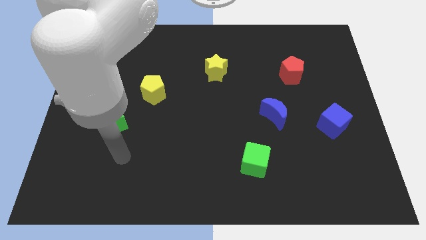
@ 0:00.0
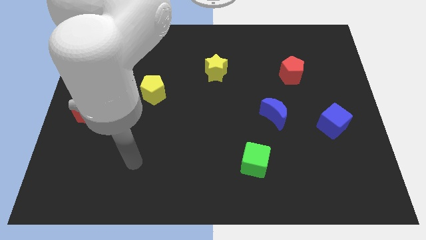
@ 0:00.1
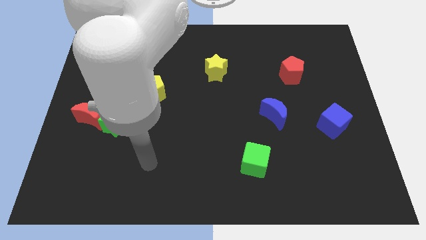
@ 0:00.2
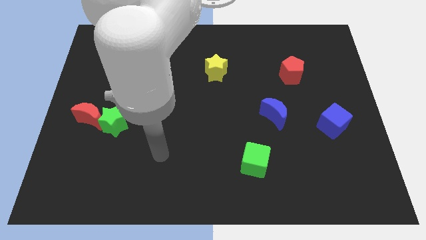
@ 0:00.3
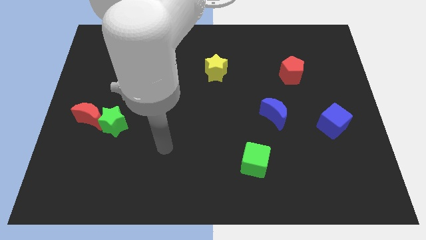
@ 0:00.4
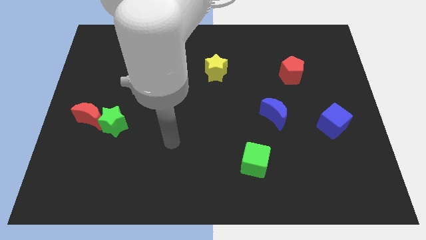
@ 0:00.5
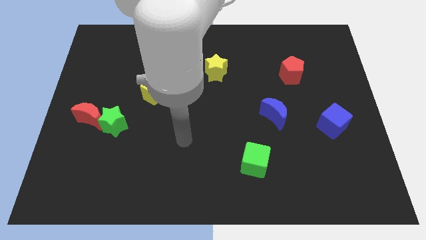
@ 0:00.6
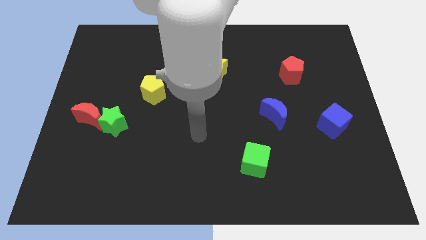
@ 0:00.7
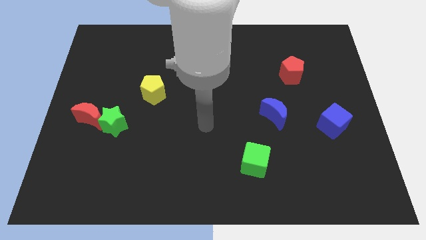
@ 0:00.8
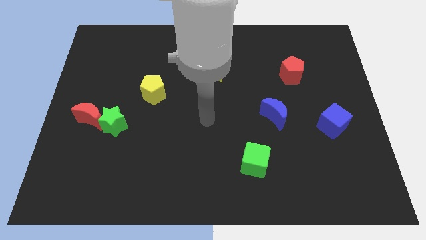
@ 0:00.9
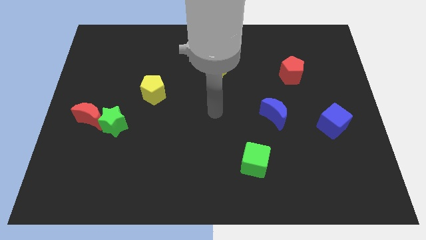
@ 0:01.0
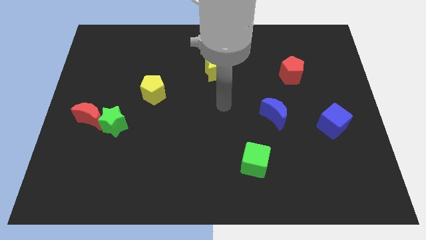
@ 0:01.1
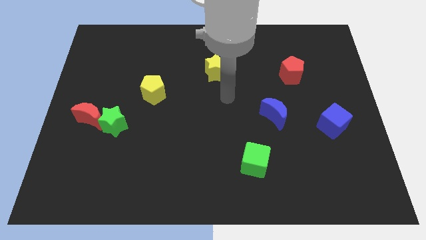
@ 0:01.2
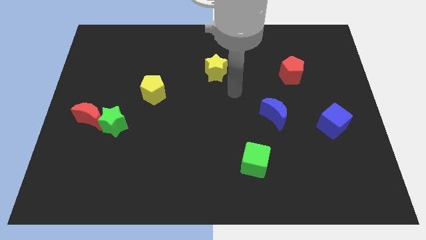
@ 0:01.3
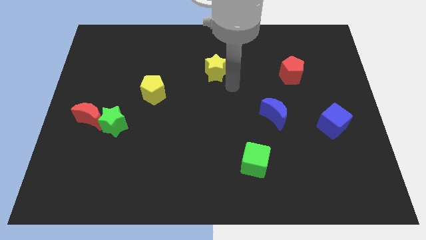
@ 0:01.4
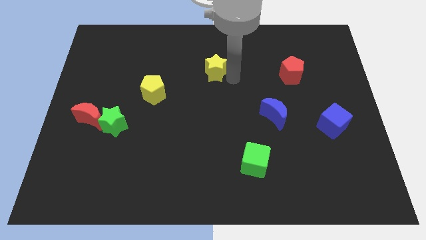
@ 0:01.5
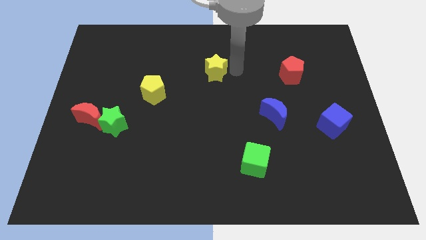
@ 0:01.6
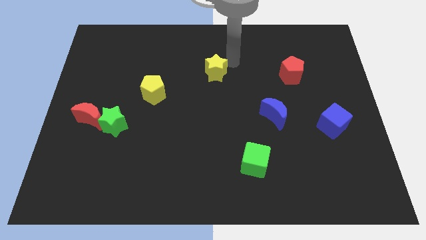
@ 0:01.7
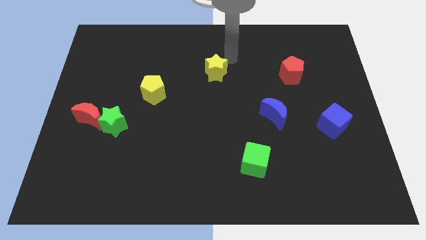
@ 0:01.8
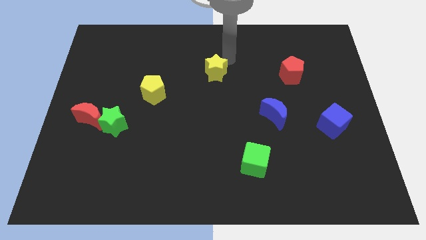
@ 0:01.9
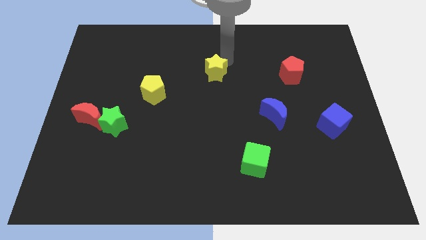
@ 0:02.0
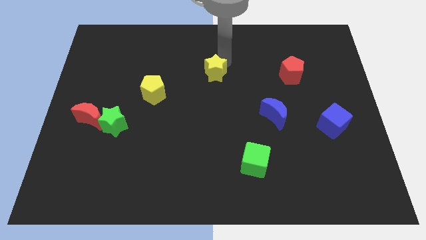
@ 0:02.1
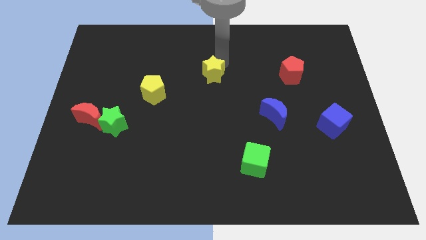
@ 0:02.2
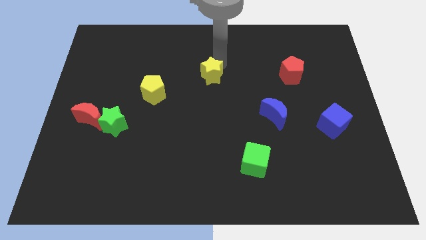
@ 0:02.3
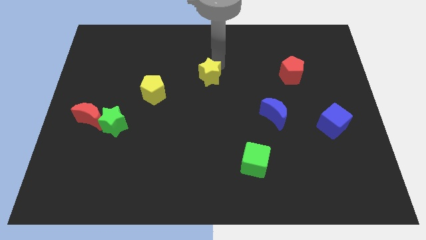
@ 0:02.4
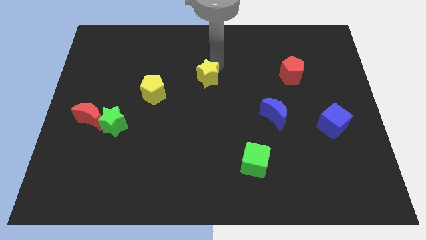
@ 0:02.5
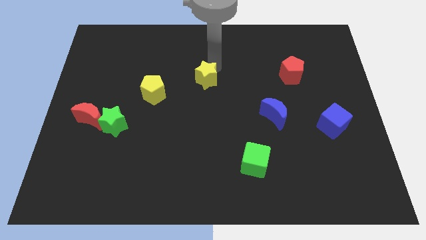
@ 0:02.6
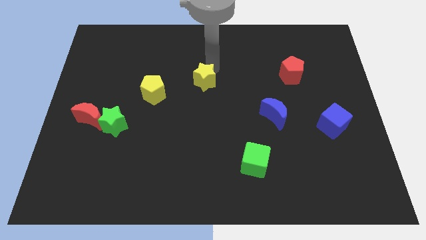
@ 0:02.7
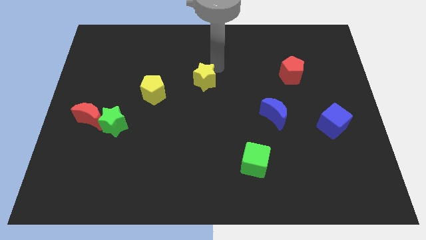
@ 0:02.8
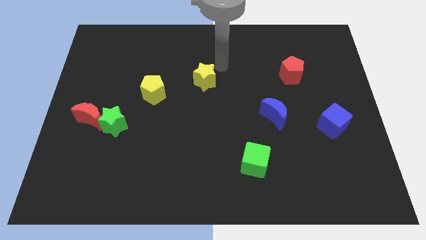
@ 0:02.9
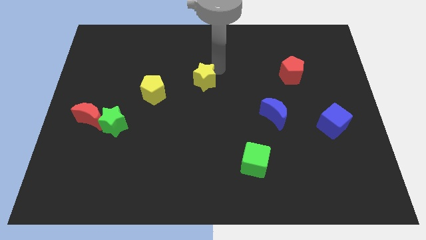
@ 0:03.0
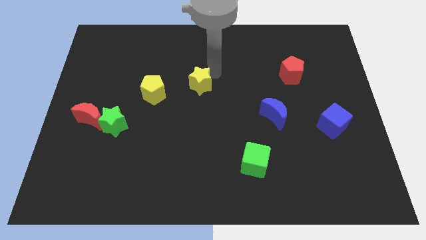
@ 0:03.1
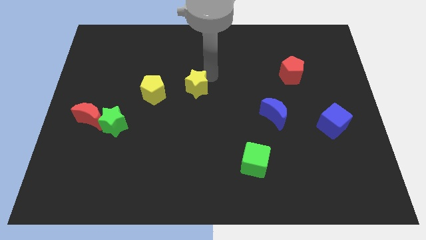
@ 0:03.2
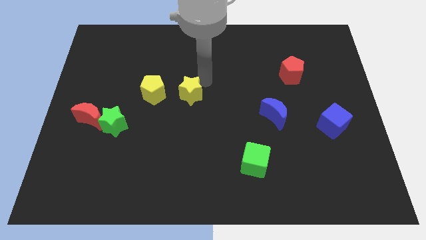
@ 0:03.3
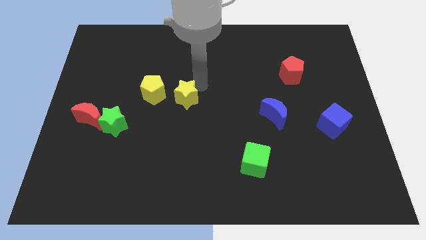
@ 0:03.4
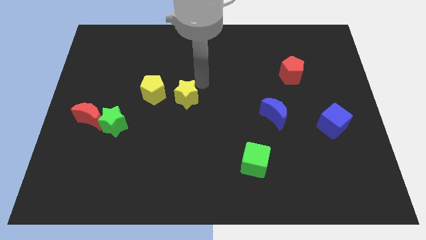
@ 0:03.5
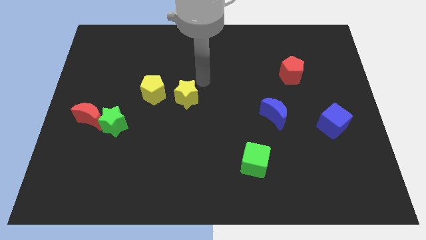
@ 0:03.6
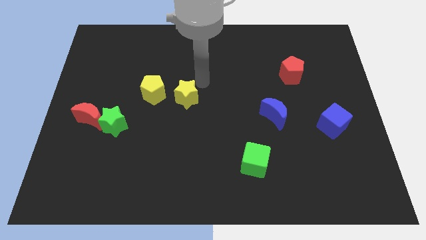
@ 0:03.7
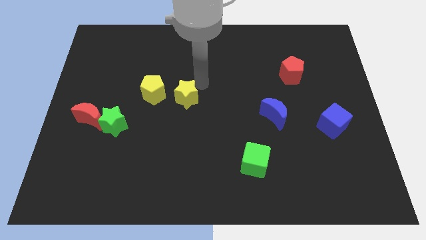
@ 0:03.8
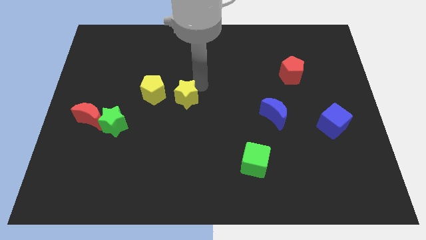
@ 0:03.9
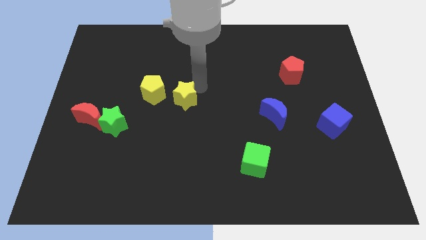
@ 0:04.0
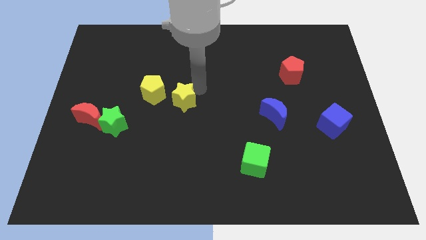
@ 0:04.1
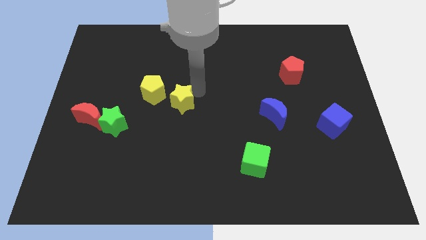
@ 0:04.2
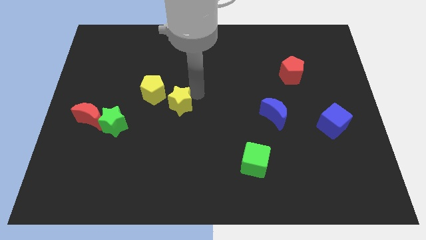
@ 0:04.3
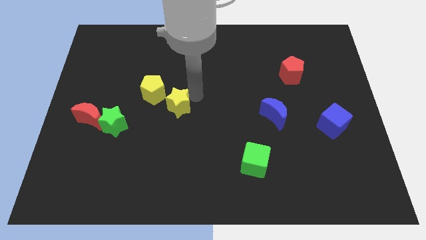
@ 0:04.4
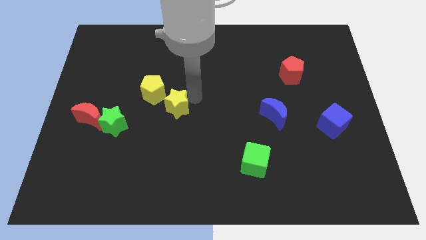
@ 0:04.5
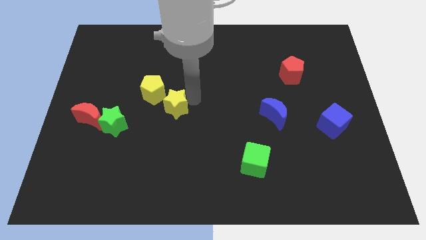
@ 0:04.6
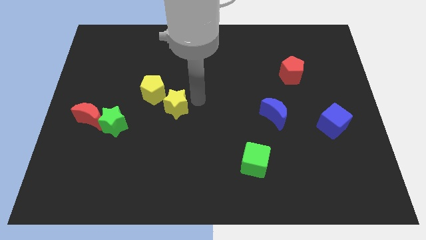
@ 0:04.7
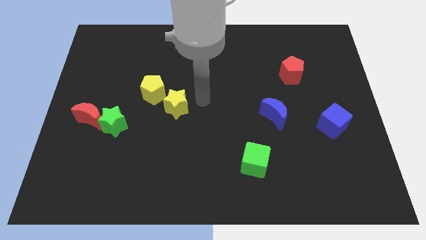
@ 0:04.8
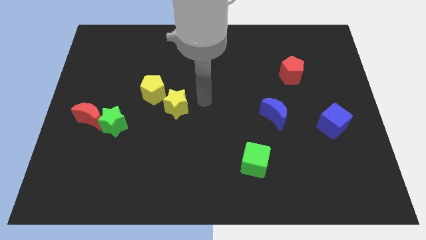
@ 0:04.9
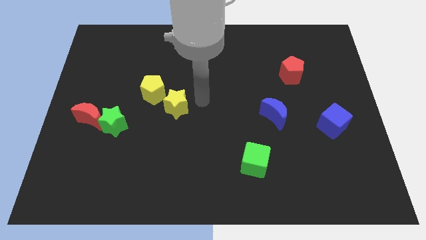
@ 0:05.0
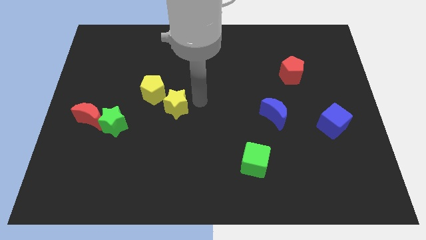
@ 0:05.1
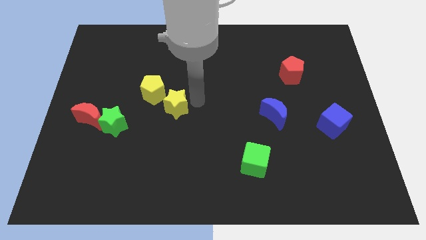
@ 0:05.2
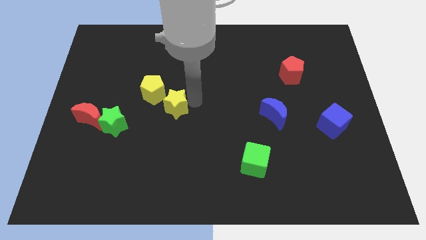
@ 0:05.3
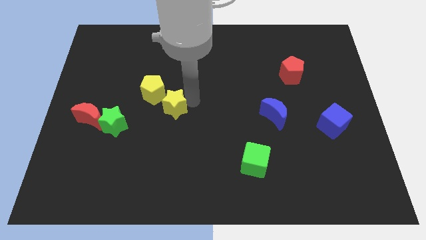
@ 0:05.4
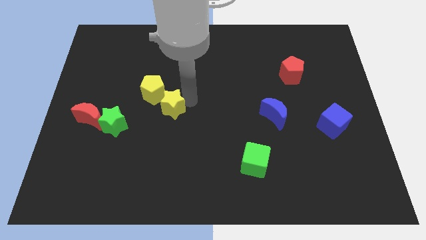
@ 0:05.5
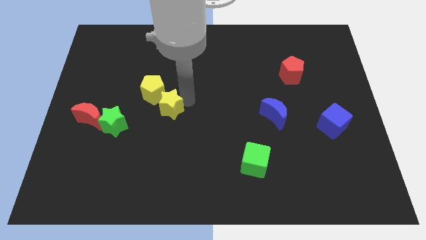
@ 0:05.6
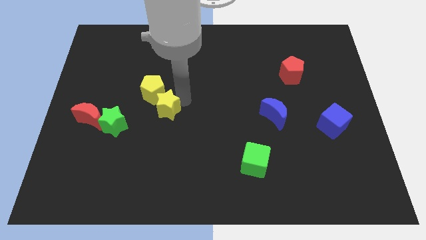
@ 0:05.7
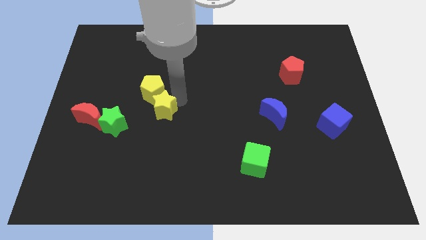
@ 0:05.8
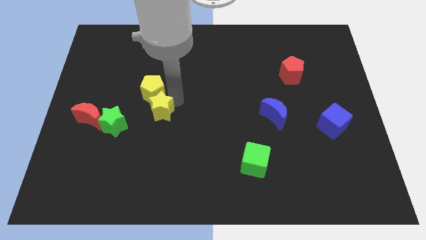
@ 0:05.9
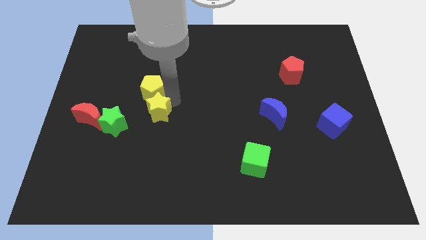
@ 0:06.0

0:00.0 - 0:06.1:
put the yellow star just right of the red moon

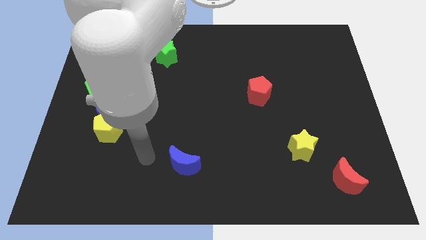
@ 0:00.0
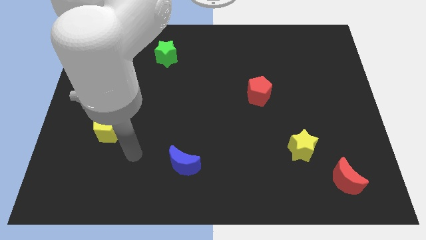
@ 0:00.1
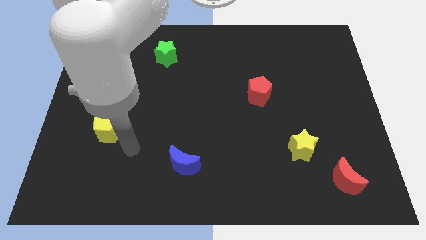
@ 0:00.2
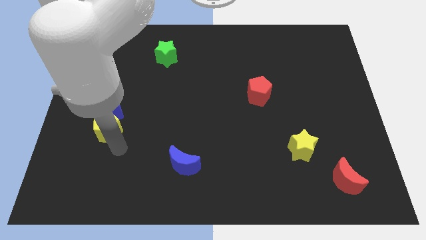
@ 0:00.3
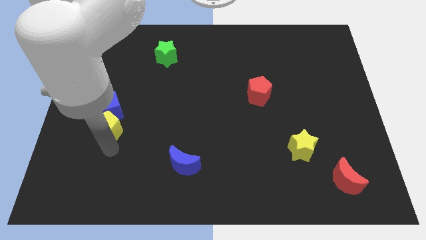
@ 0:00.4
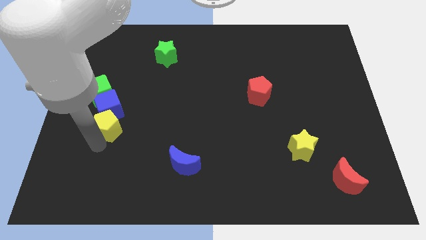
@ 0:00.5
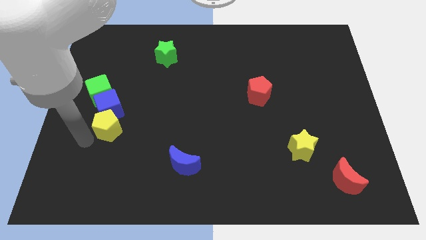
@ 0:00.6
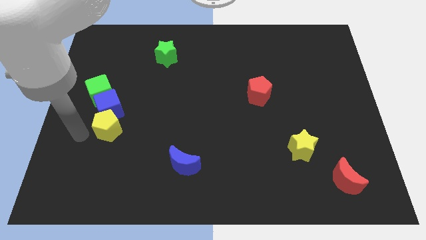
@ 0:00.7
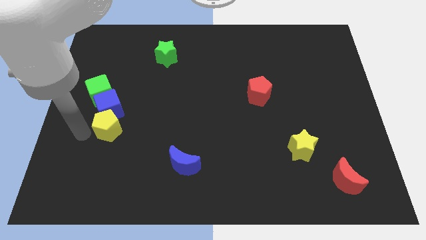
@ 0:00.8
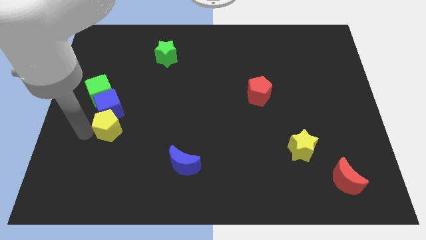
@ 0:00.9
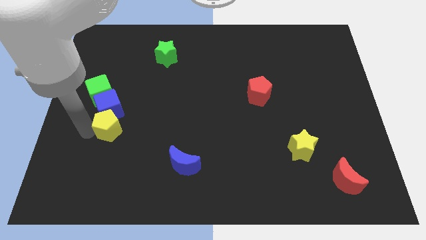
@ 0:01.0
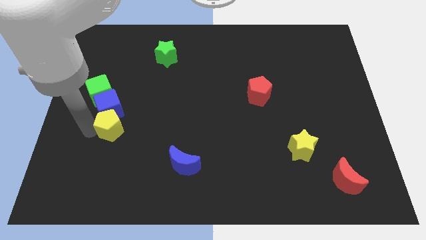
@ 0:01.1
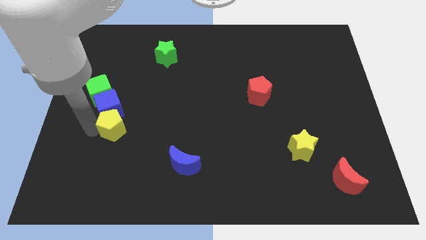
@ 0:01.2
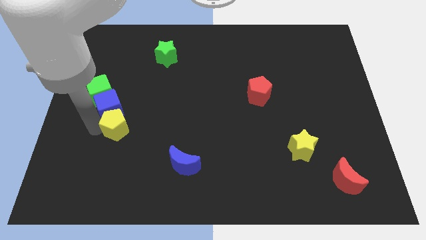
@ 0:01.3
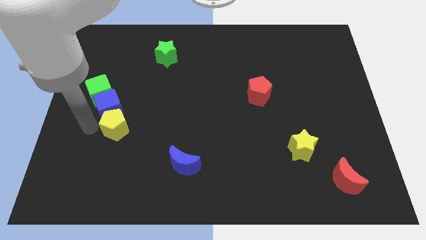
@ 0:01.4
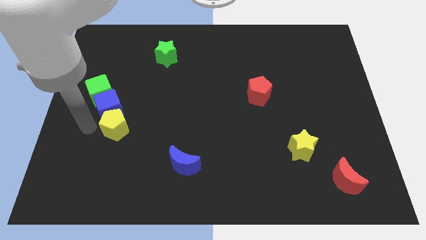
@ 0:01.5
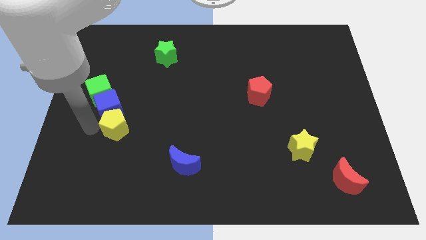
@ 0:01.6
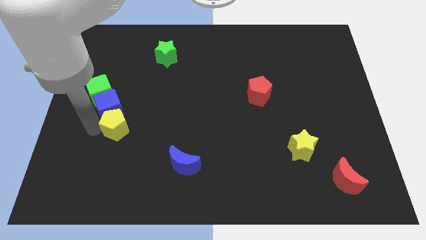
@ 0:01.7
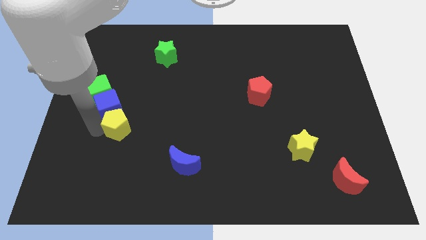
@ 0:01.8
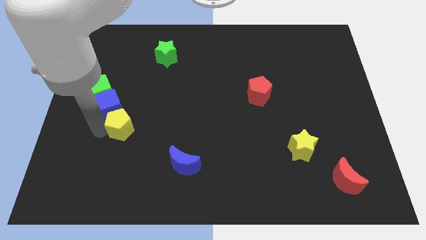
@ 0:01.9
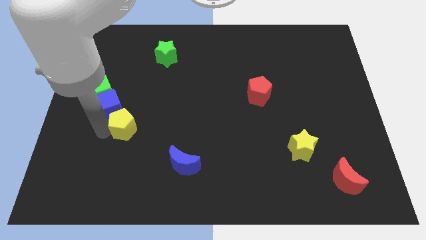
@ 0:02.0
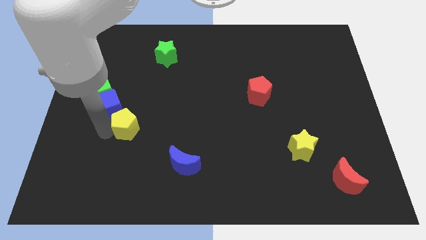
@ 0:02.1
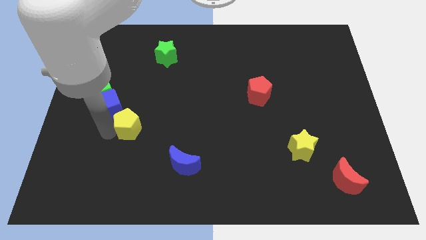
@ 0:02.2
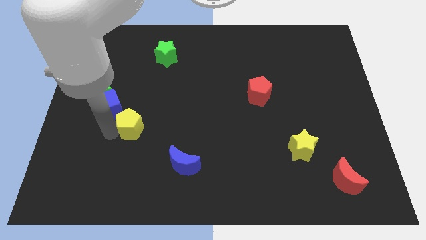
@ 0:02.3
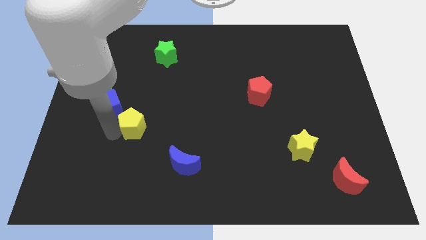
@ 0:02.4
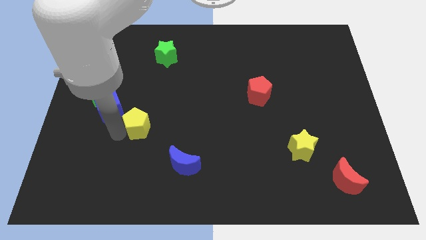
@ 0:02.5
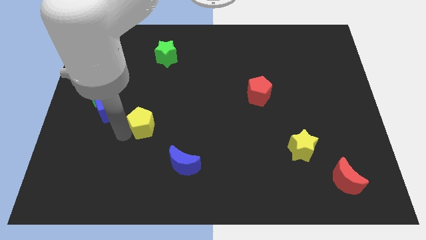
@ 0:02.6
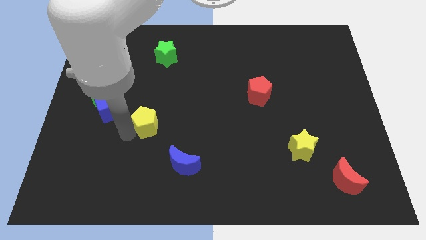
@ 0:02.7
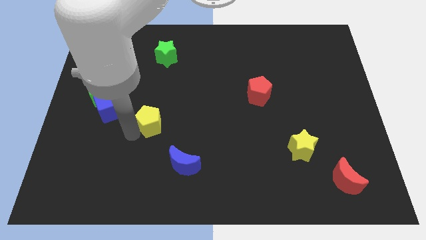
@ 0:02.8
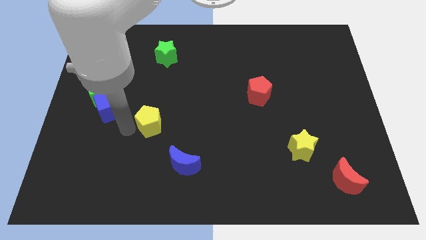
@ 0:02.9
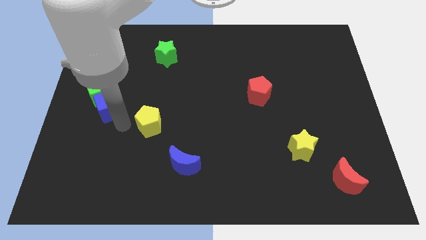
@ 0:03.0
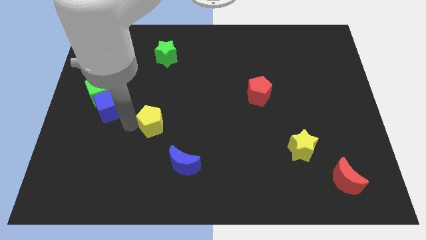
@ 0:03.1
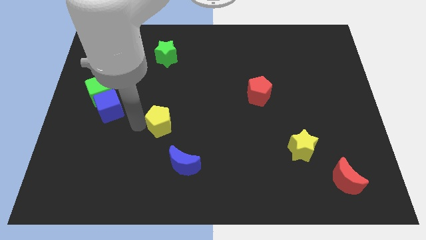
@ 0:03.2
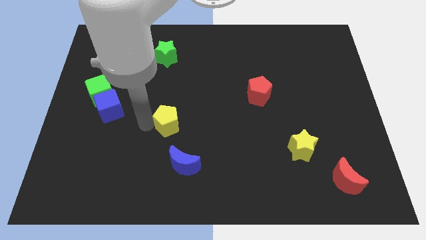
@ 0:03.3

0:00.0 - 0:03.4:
move the yellow pentagon to the top side of the blue moon
